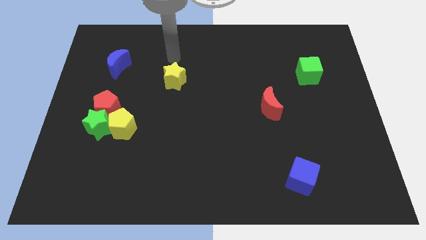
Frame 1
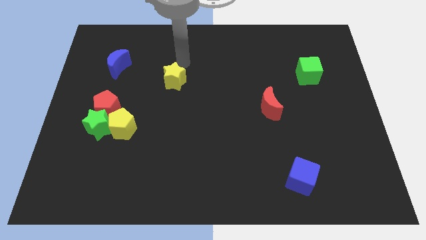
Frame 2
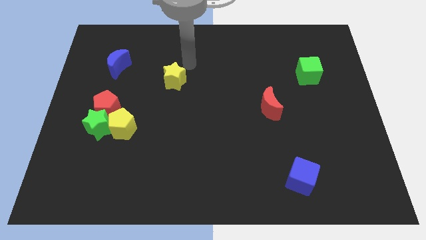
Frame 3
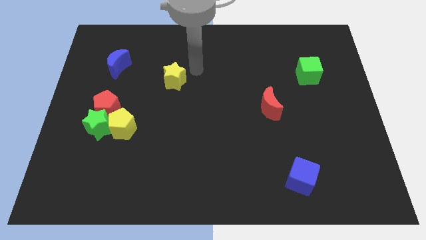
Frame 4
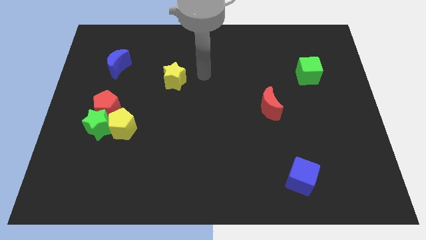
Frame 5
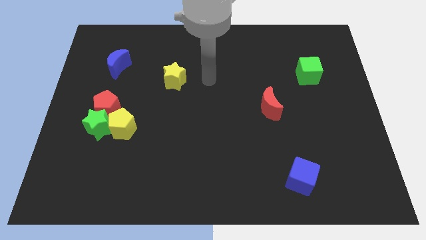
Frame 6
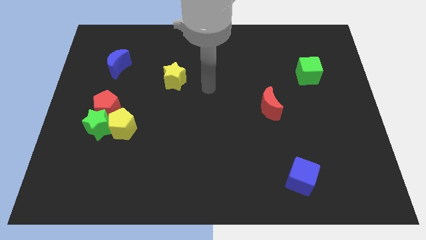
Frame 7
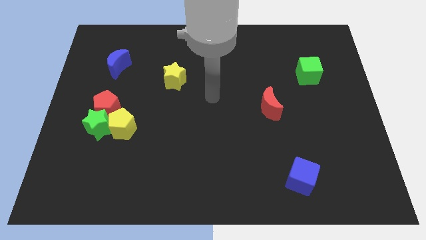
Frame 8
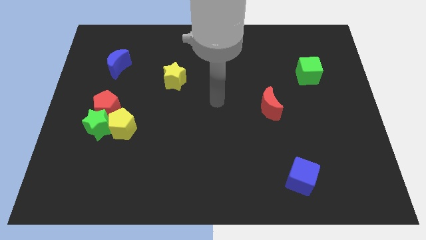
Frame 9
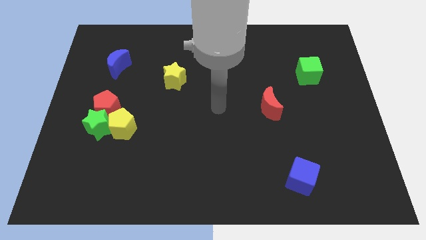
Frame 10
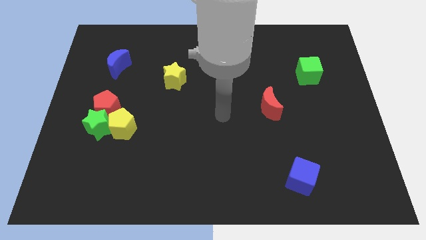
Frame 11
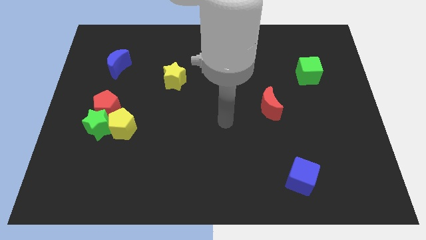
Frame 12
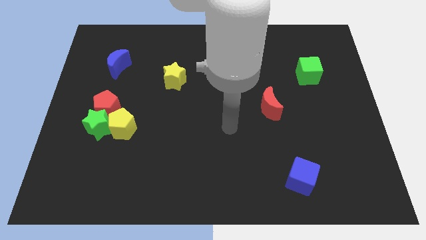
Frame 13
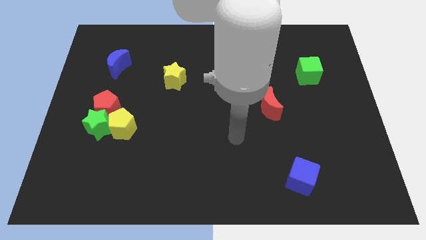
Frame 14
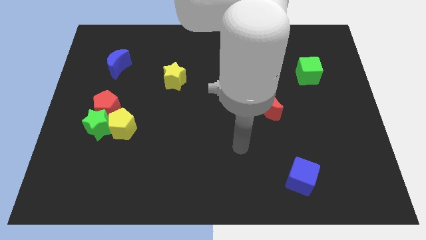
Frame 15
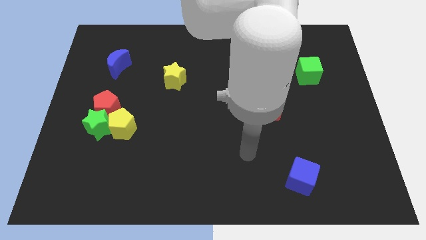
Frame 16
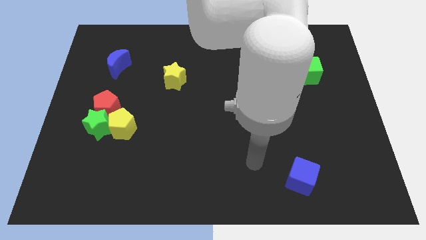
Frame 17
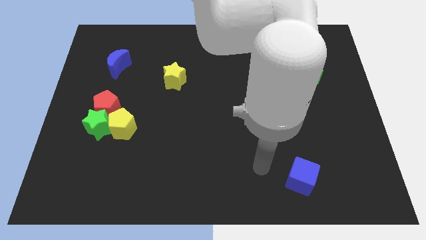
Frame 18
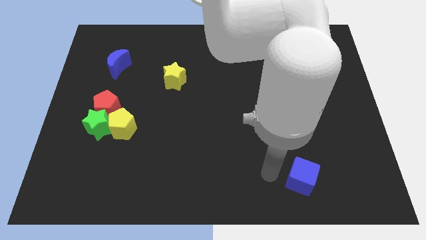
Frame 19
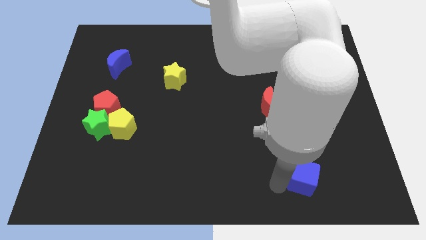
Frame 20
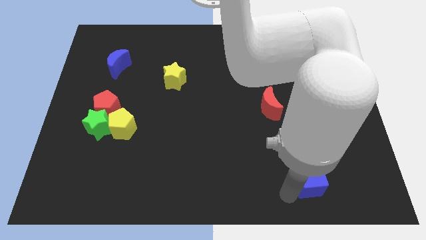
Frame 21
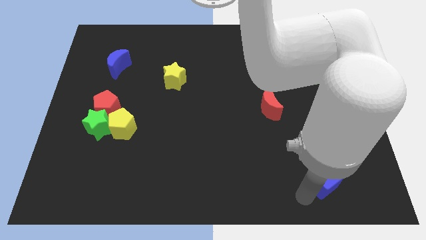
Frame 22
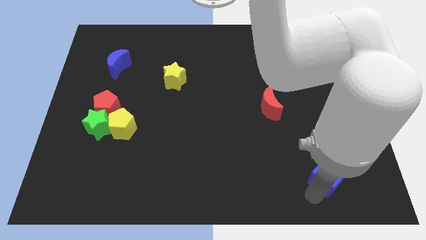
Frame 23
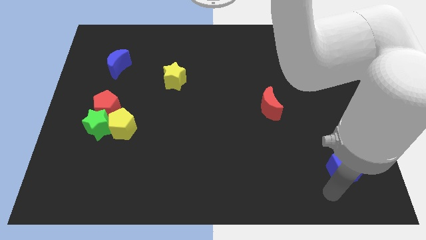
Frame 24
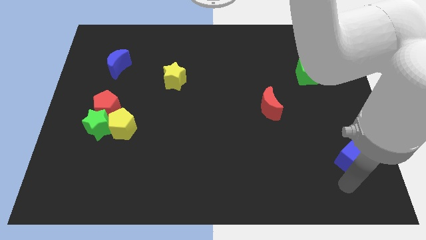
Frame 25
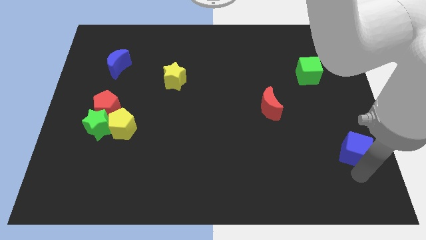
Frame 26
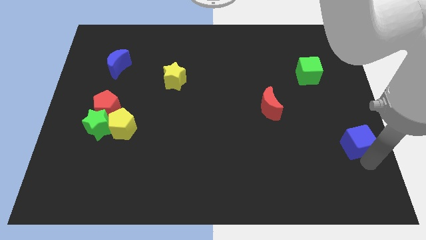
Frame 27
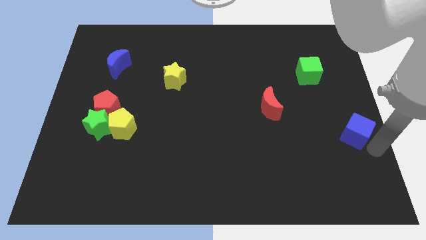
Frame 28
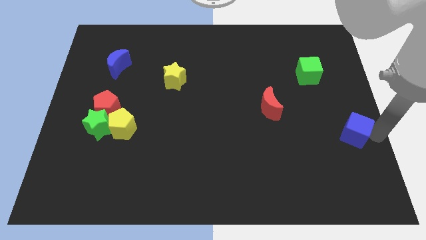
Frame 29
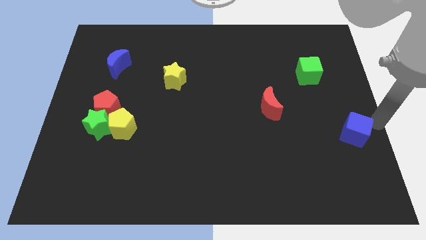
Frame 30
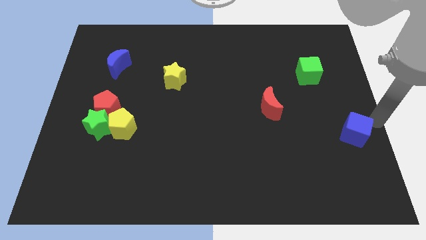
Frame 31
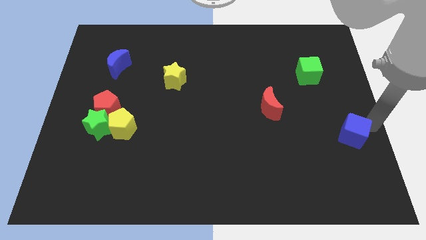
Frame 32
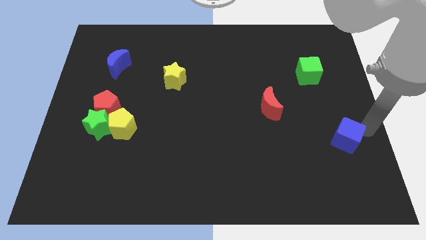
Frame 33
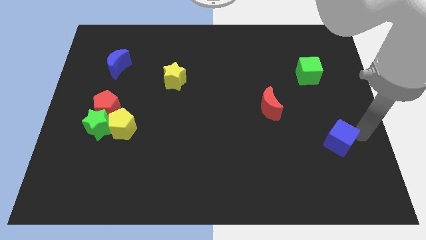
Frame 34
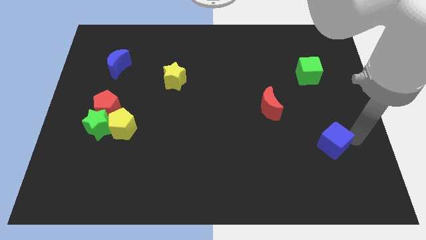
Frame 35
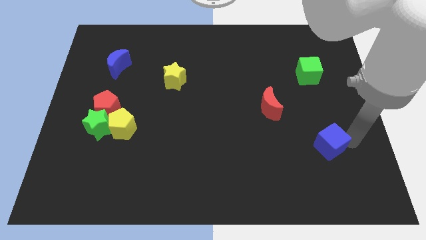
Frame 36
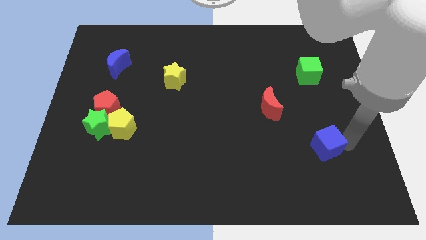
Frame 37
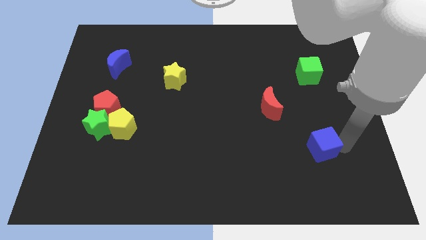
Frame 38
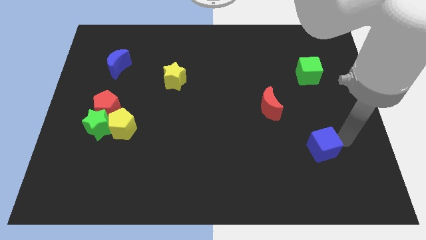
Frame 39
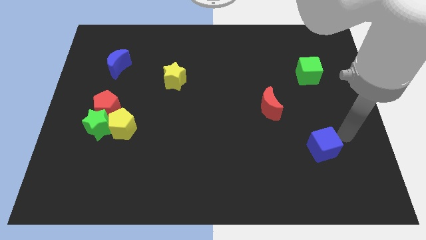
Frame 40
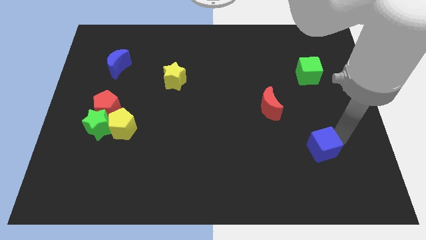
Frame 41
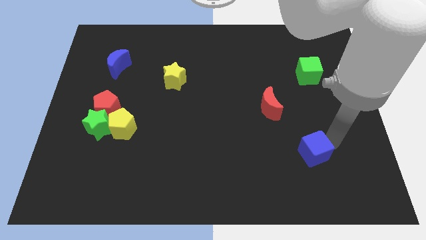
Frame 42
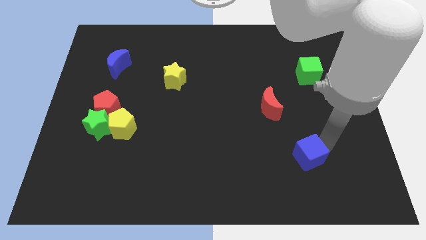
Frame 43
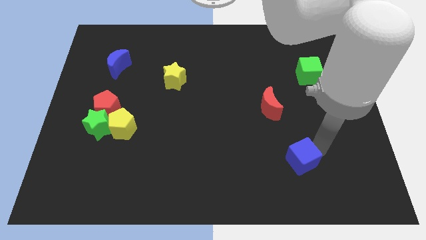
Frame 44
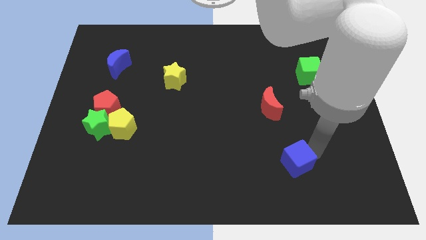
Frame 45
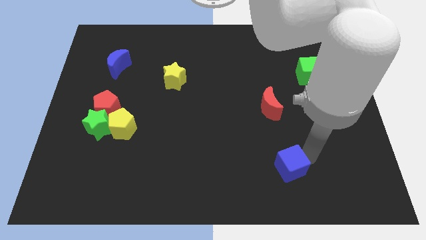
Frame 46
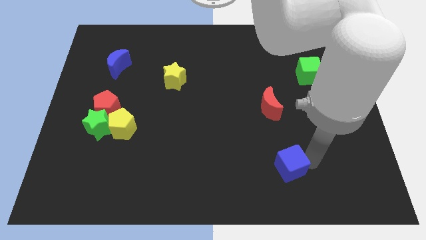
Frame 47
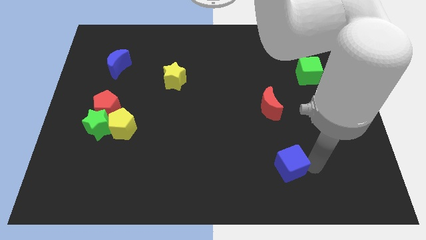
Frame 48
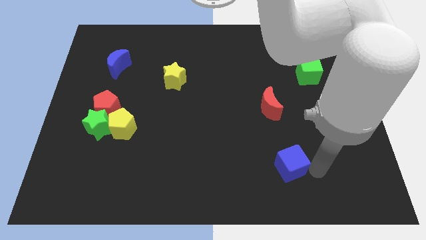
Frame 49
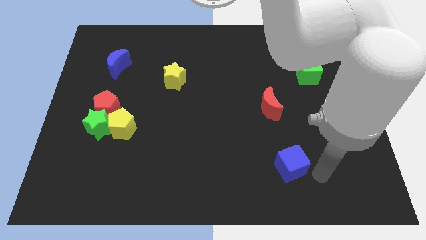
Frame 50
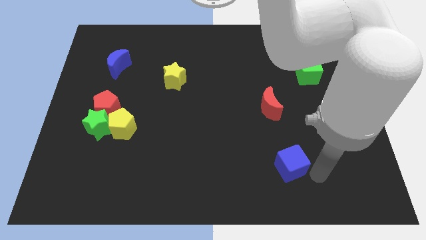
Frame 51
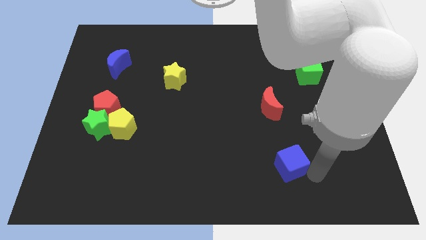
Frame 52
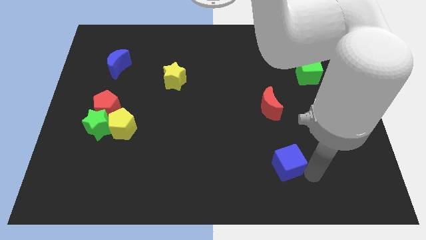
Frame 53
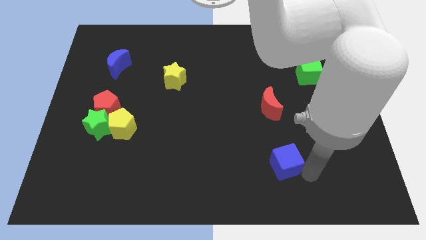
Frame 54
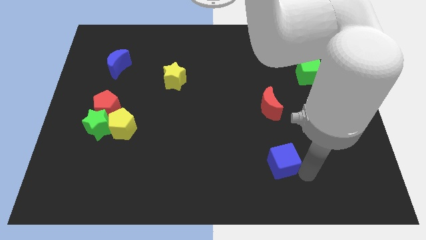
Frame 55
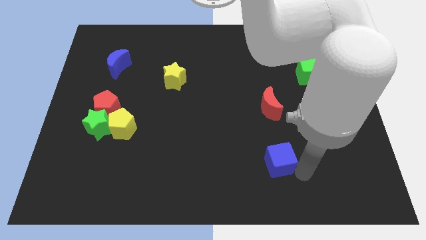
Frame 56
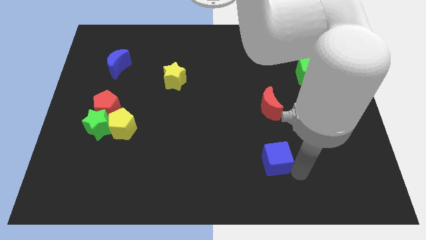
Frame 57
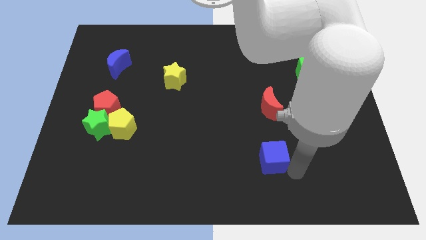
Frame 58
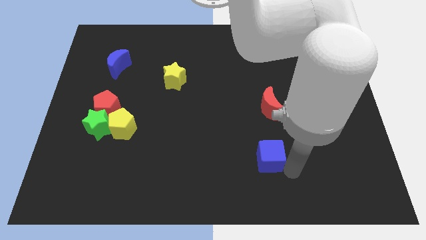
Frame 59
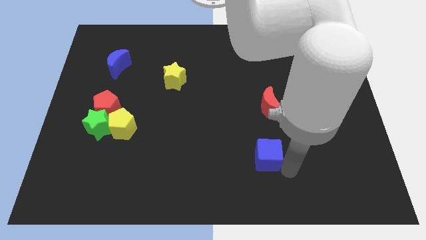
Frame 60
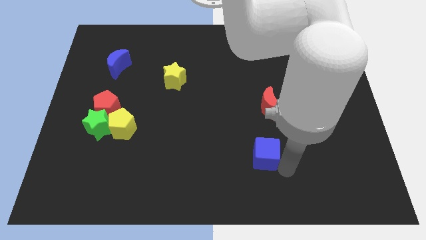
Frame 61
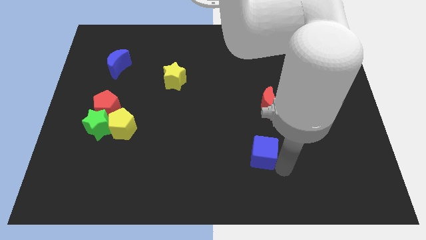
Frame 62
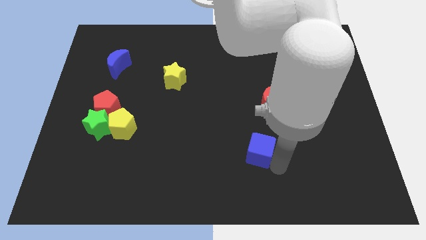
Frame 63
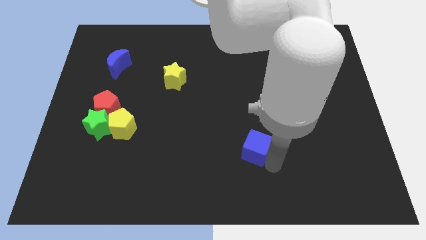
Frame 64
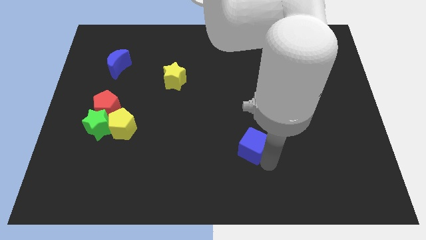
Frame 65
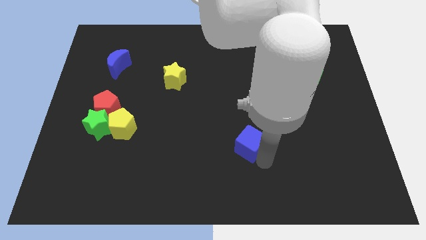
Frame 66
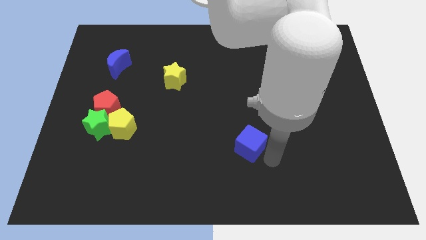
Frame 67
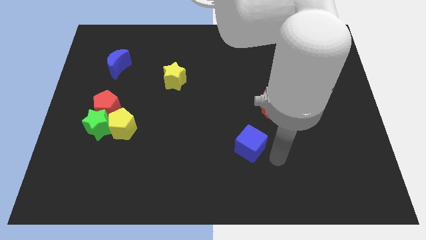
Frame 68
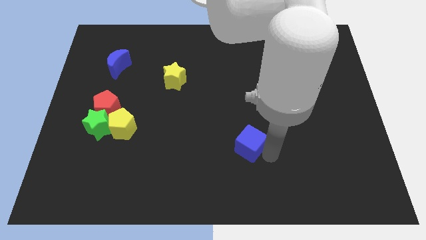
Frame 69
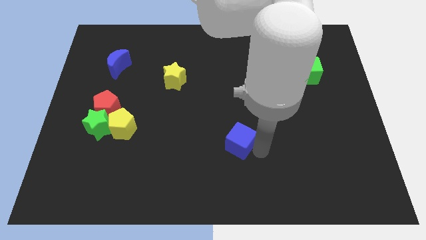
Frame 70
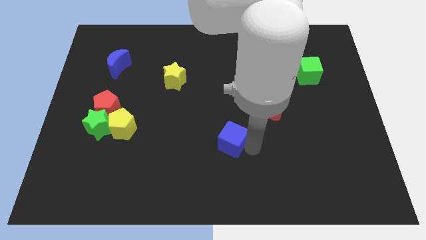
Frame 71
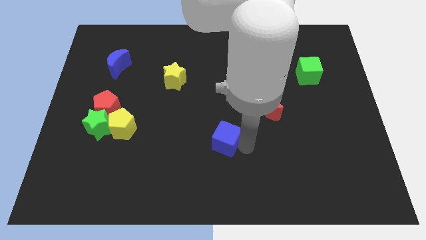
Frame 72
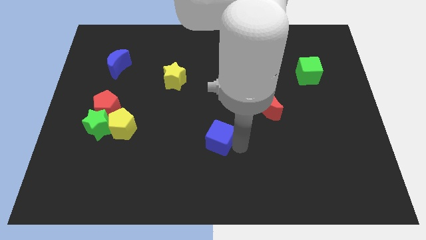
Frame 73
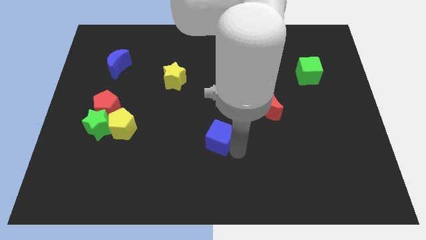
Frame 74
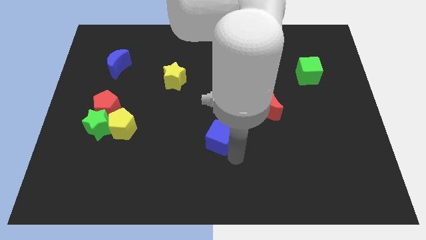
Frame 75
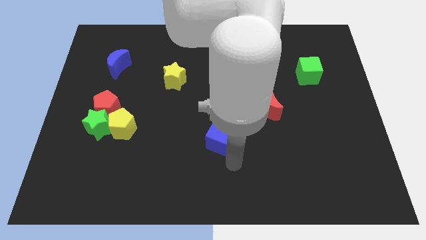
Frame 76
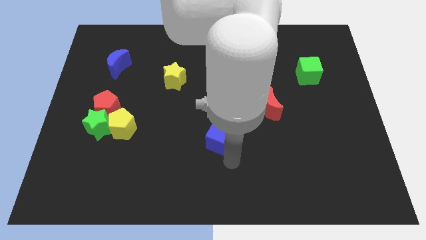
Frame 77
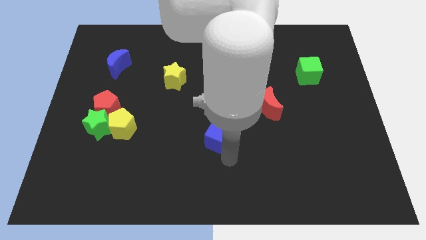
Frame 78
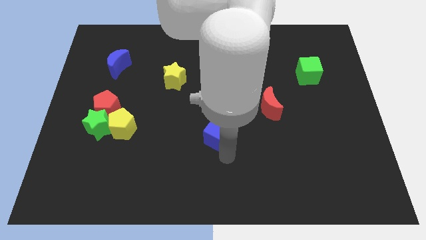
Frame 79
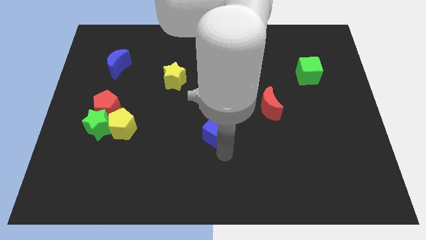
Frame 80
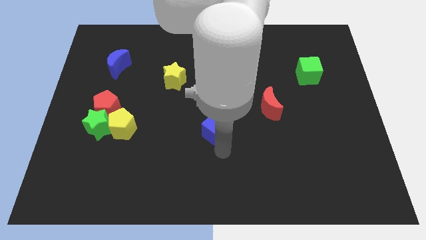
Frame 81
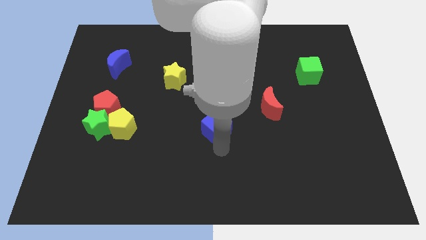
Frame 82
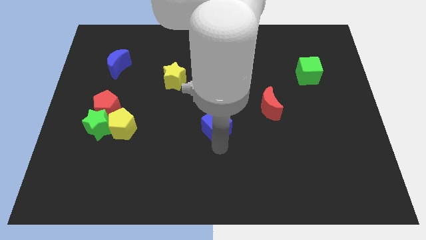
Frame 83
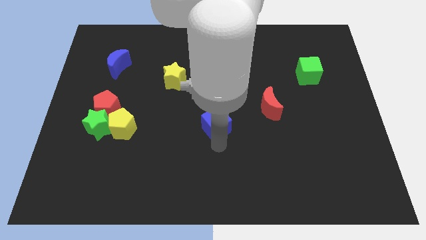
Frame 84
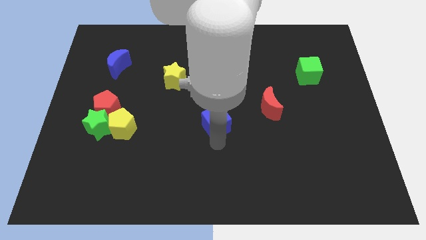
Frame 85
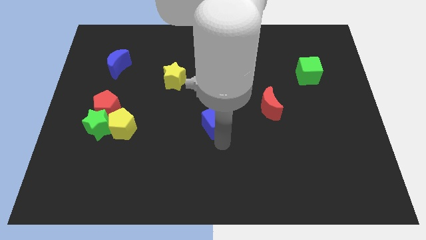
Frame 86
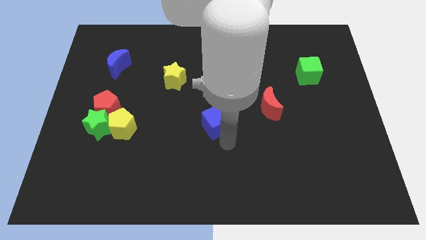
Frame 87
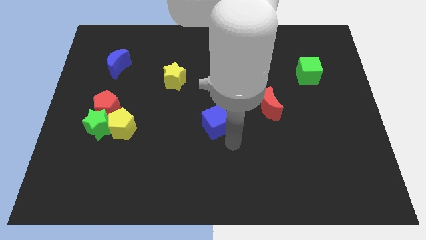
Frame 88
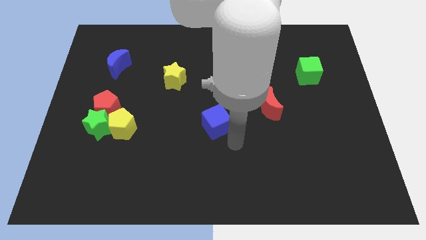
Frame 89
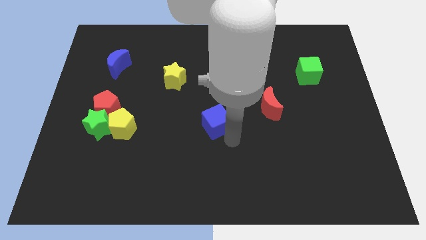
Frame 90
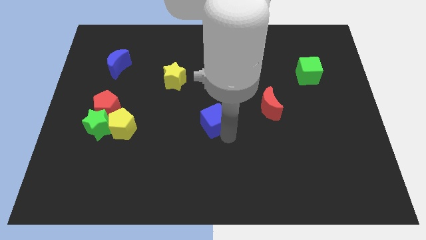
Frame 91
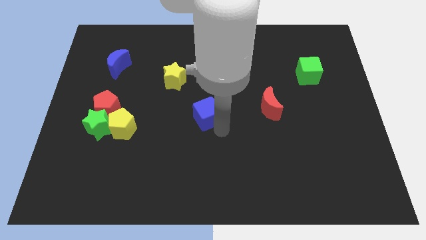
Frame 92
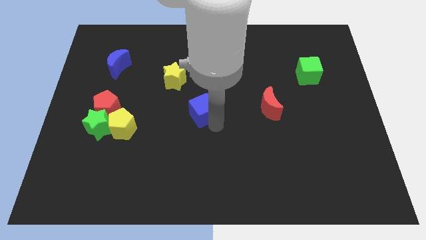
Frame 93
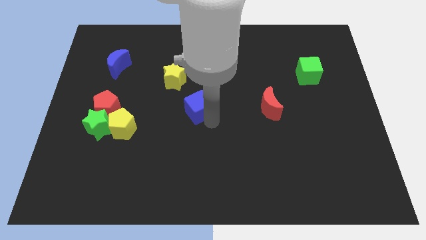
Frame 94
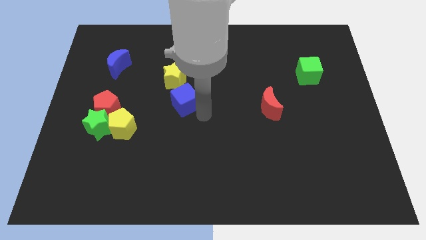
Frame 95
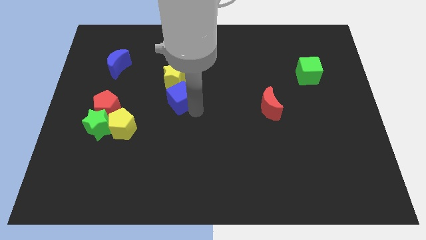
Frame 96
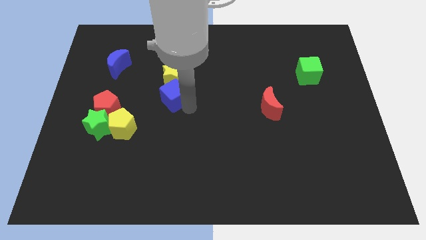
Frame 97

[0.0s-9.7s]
push the blue cube close to the yellow star
